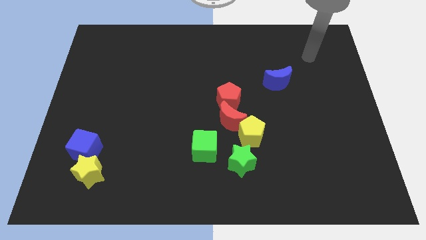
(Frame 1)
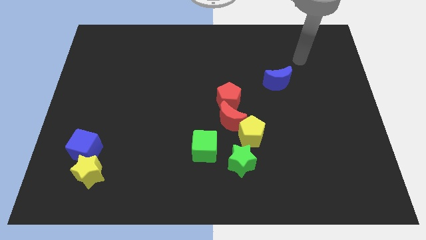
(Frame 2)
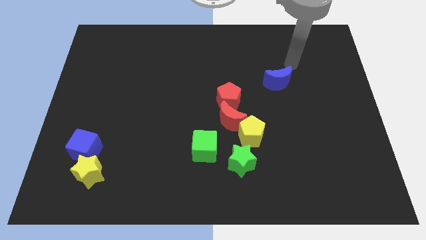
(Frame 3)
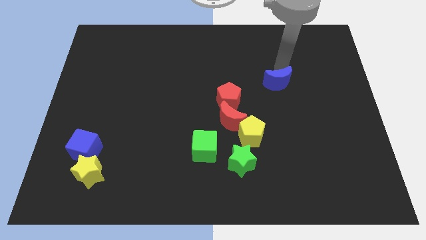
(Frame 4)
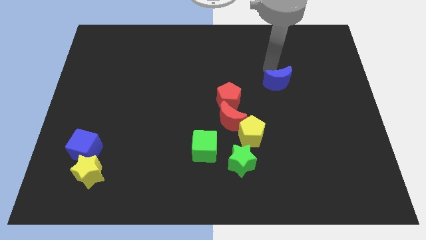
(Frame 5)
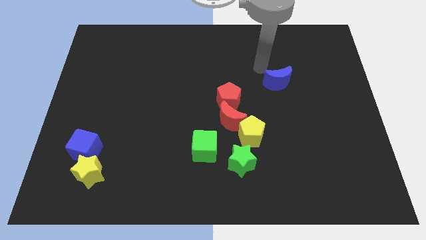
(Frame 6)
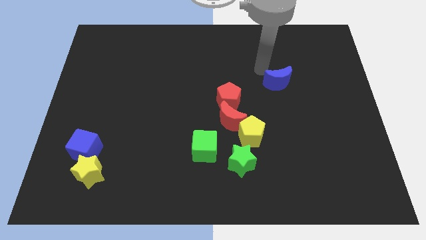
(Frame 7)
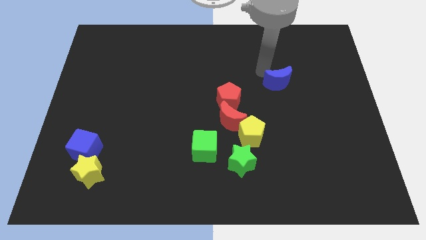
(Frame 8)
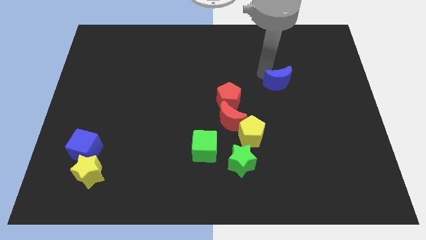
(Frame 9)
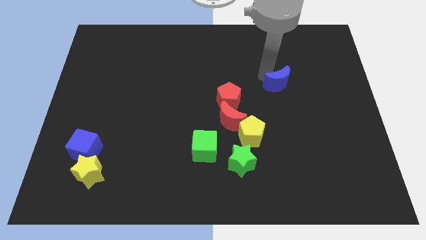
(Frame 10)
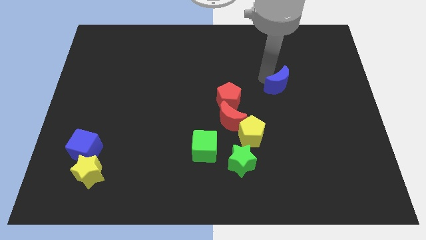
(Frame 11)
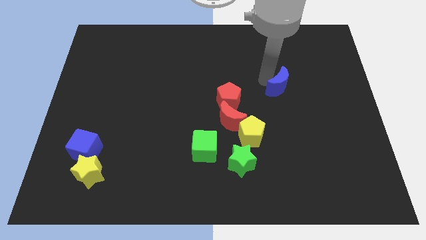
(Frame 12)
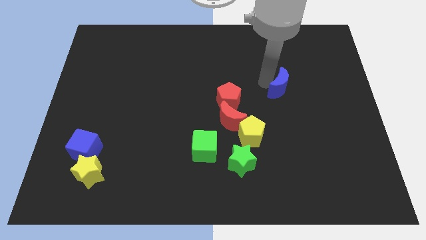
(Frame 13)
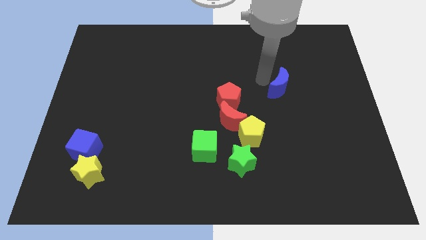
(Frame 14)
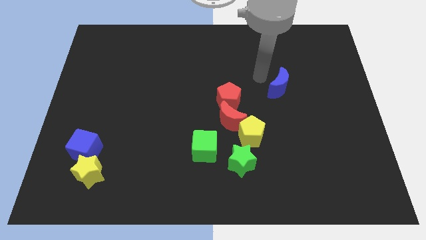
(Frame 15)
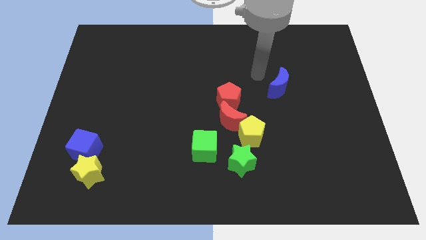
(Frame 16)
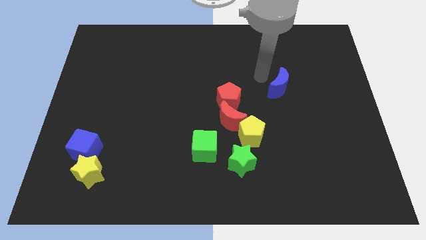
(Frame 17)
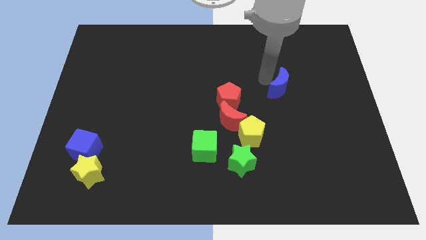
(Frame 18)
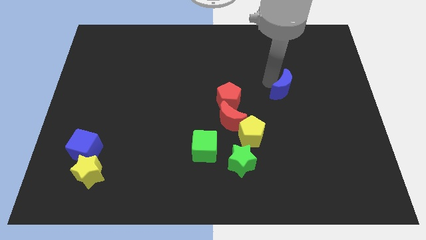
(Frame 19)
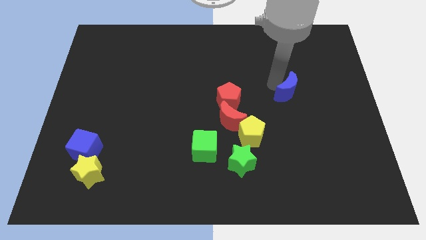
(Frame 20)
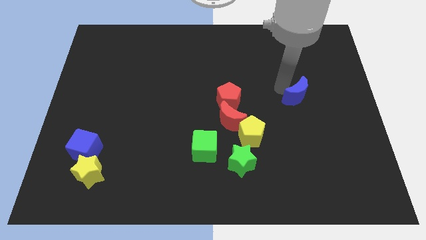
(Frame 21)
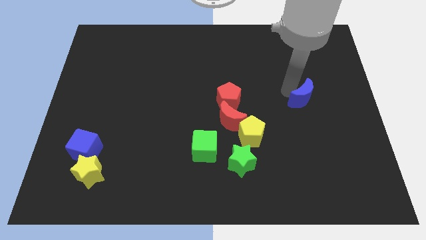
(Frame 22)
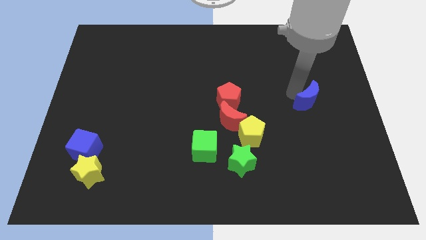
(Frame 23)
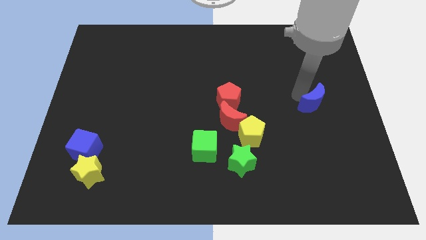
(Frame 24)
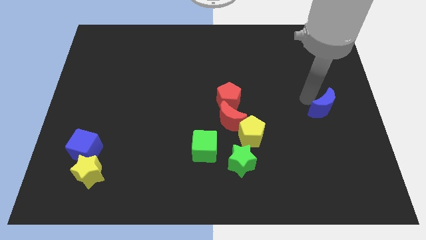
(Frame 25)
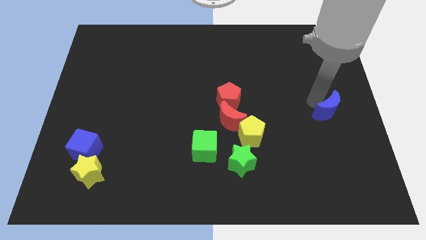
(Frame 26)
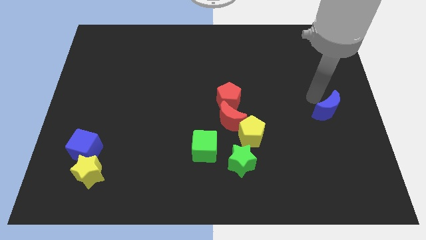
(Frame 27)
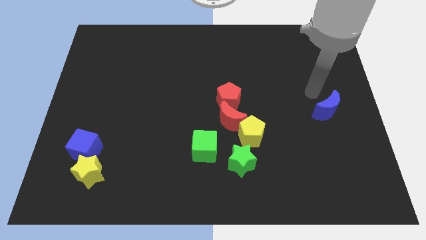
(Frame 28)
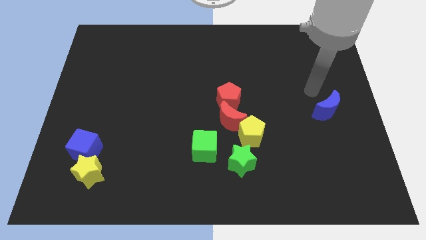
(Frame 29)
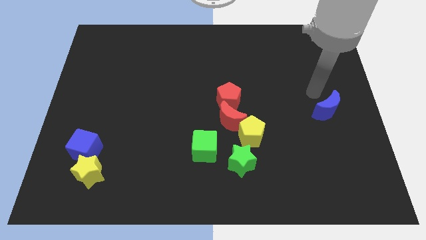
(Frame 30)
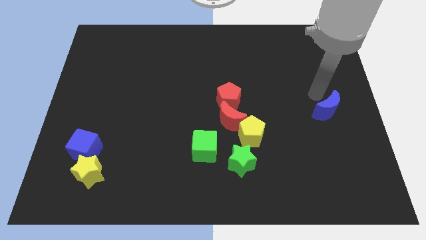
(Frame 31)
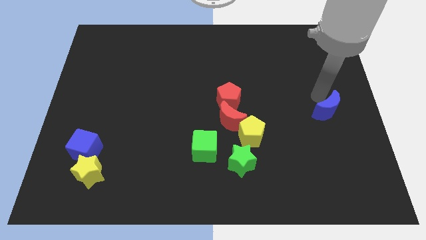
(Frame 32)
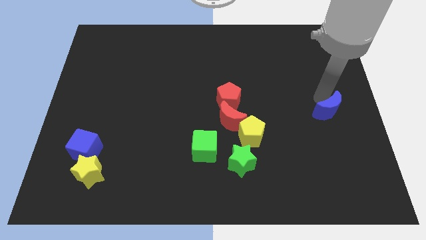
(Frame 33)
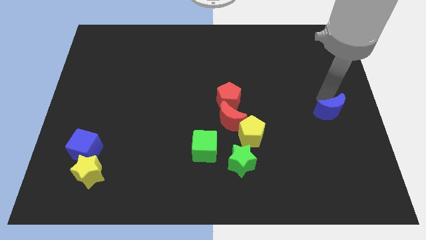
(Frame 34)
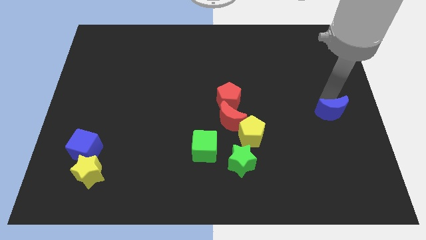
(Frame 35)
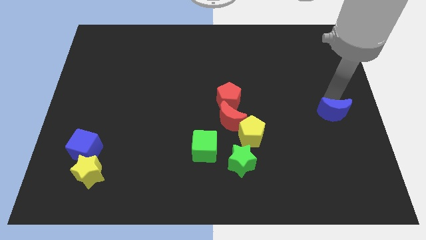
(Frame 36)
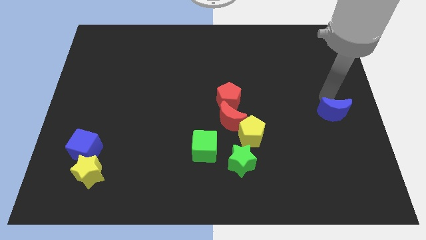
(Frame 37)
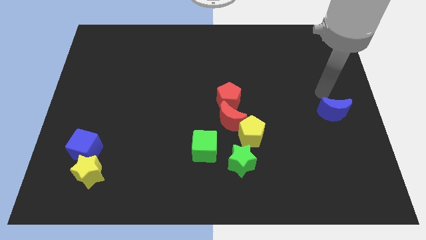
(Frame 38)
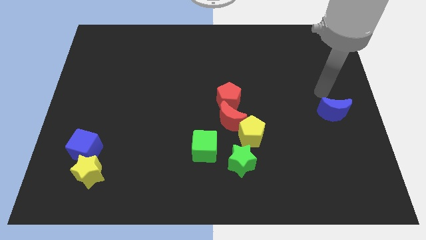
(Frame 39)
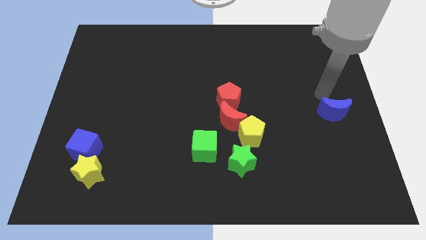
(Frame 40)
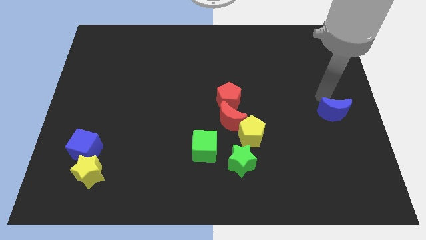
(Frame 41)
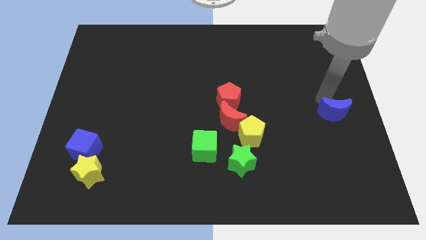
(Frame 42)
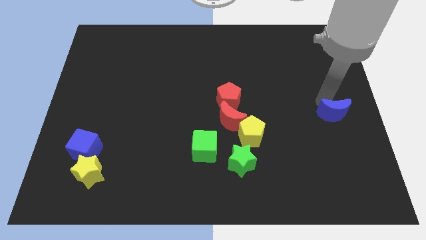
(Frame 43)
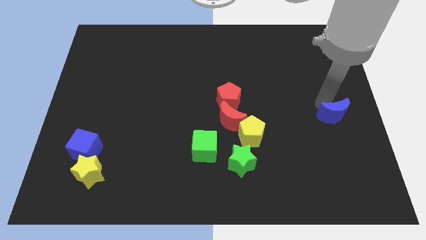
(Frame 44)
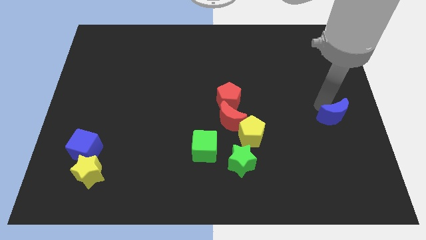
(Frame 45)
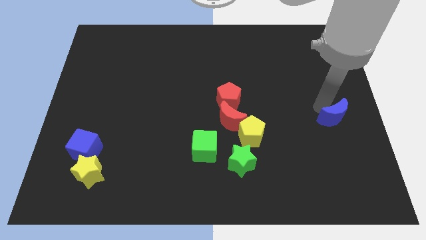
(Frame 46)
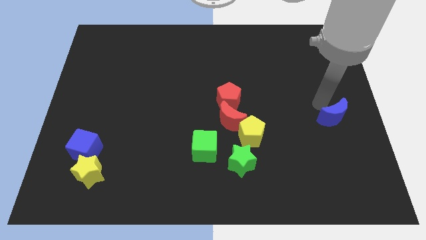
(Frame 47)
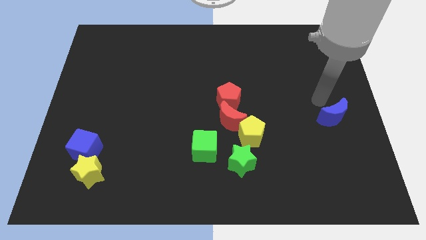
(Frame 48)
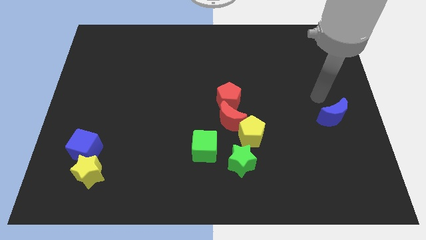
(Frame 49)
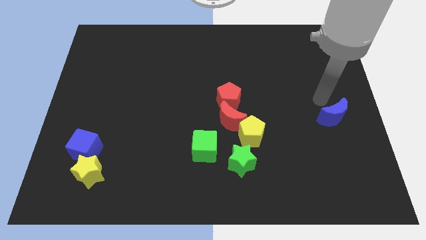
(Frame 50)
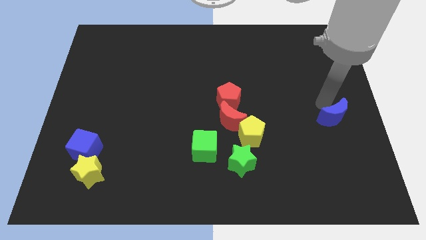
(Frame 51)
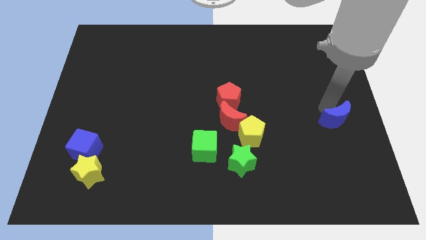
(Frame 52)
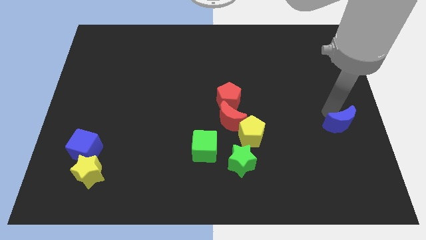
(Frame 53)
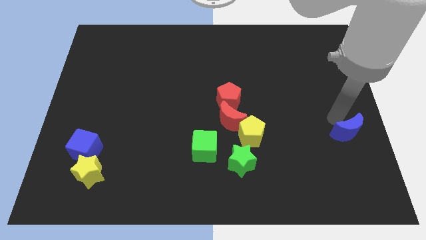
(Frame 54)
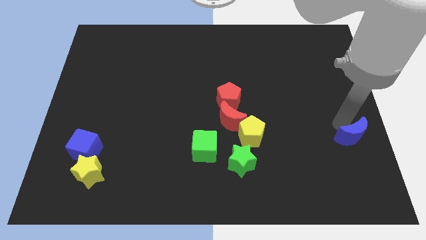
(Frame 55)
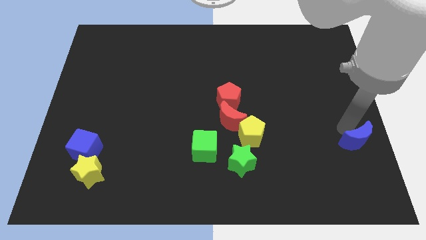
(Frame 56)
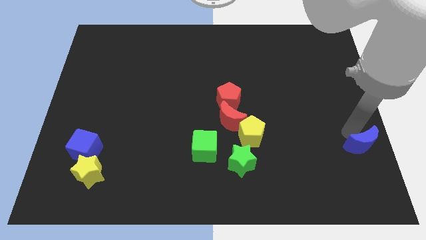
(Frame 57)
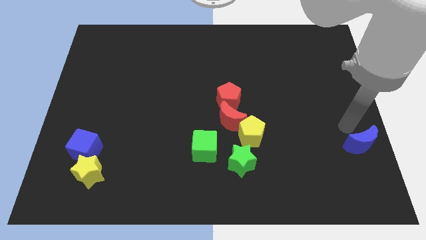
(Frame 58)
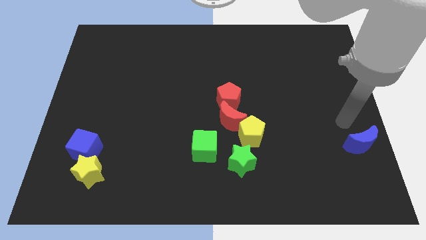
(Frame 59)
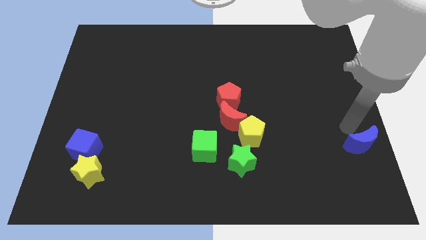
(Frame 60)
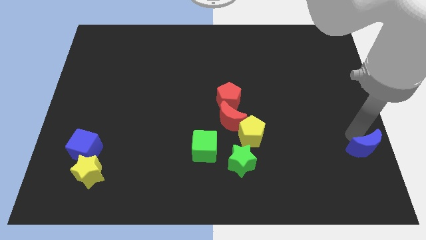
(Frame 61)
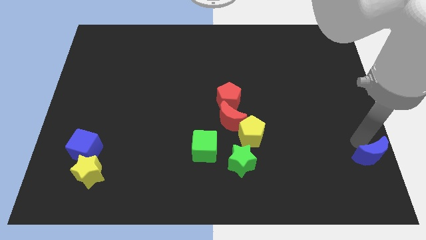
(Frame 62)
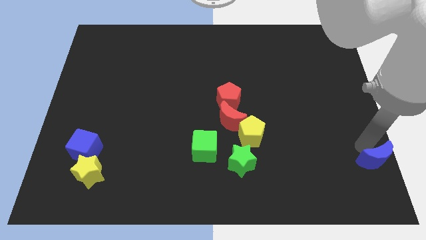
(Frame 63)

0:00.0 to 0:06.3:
slide the blue moon to the lower right corner
